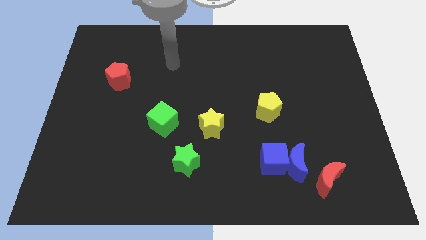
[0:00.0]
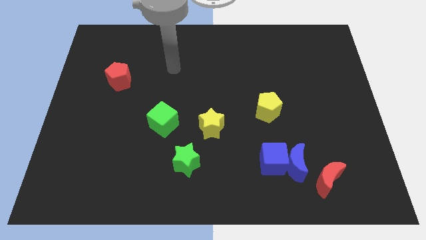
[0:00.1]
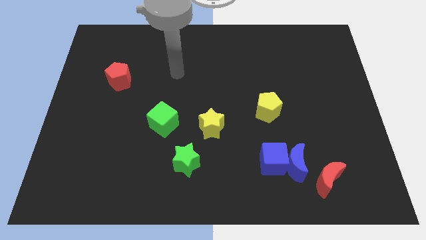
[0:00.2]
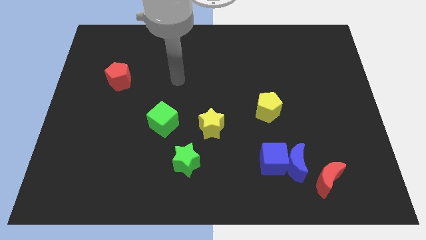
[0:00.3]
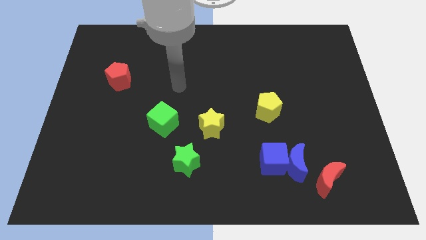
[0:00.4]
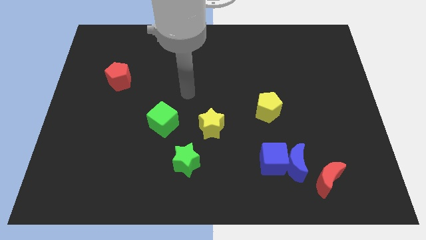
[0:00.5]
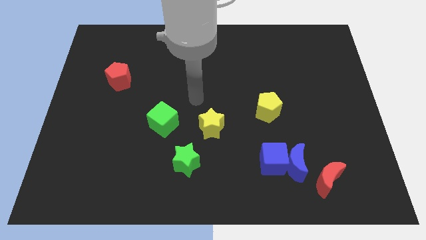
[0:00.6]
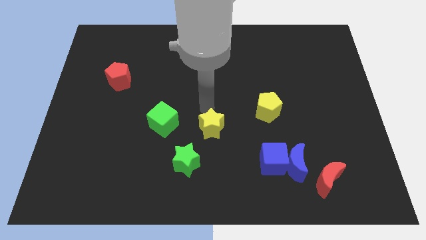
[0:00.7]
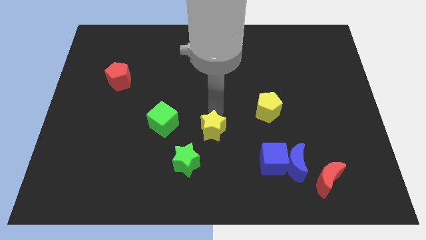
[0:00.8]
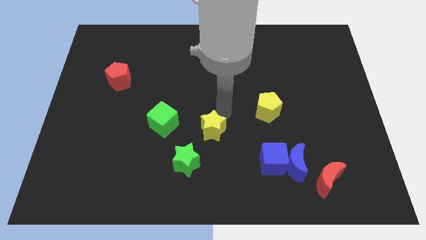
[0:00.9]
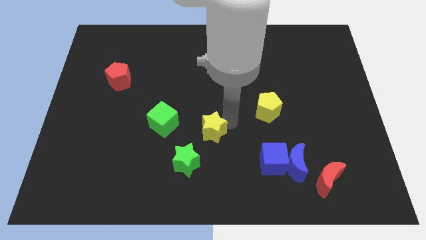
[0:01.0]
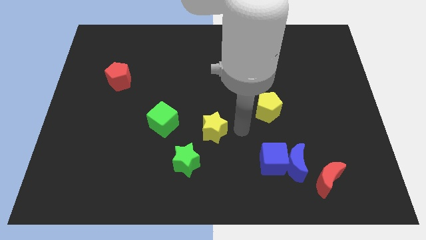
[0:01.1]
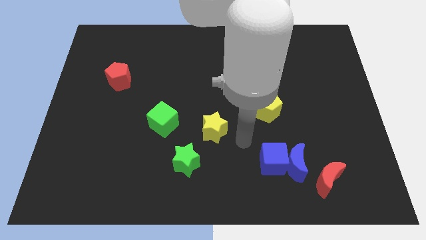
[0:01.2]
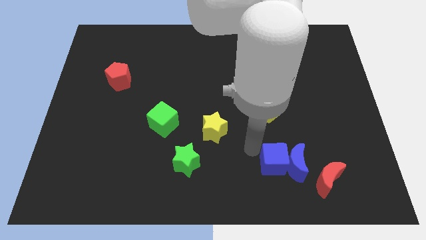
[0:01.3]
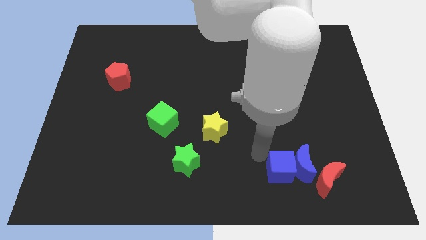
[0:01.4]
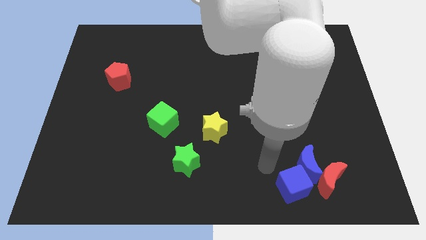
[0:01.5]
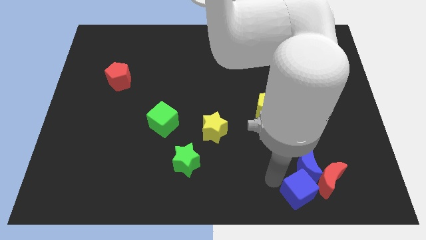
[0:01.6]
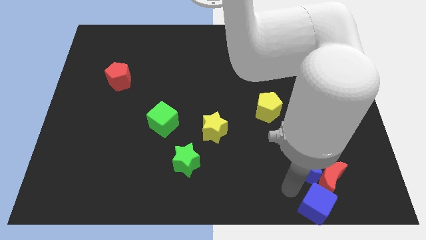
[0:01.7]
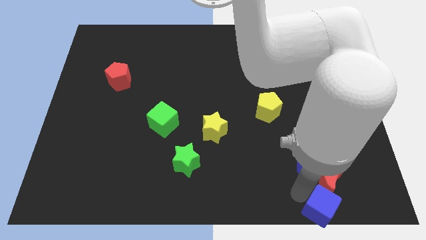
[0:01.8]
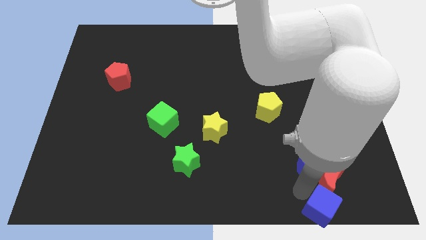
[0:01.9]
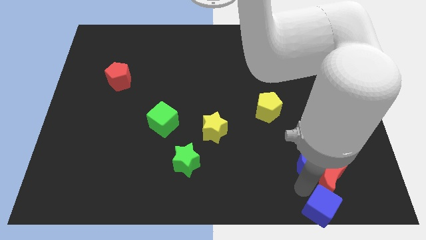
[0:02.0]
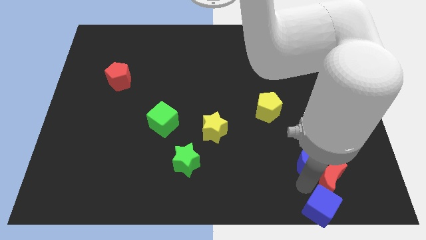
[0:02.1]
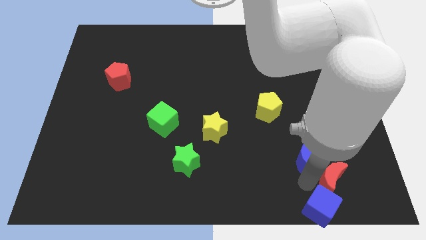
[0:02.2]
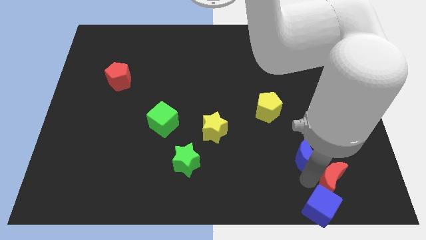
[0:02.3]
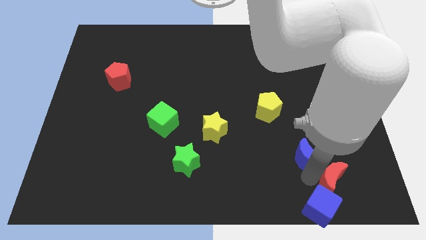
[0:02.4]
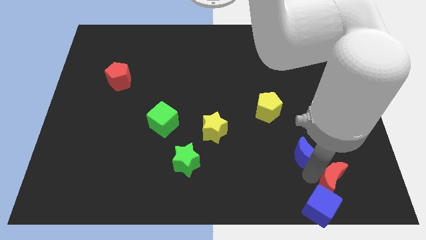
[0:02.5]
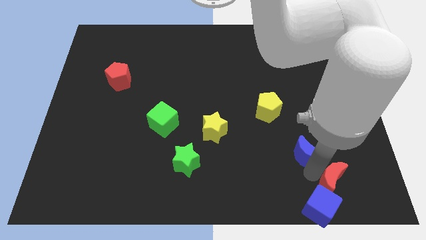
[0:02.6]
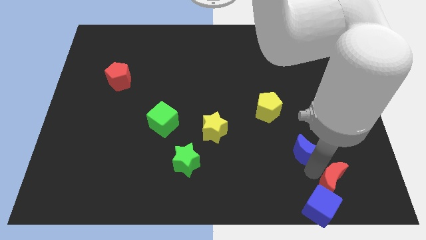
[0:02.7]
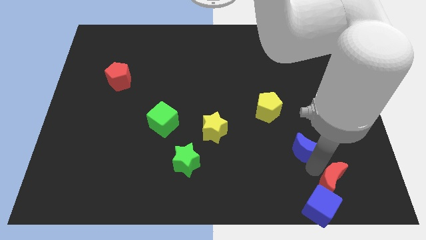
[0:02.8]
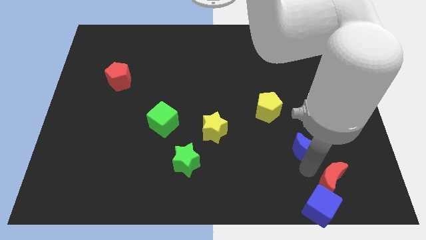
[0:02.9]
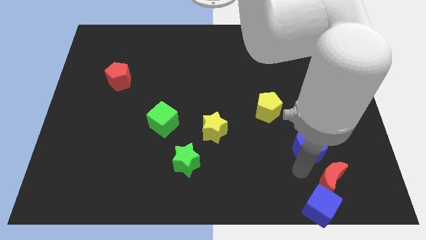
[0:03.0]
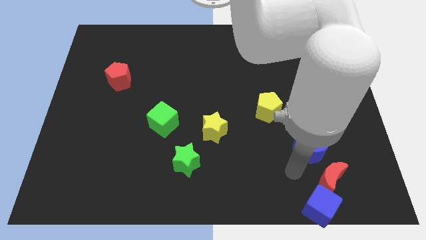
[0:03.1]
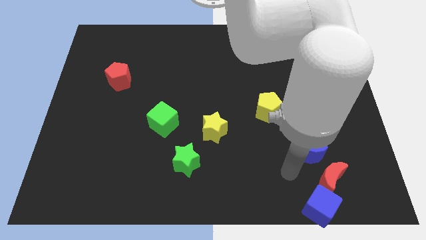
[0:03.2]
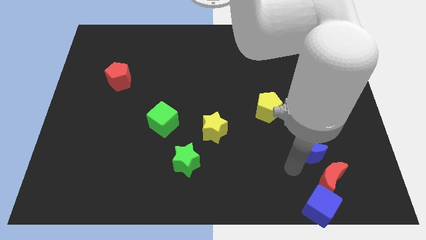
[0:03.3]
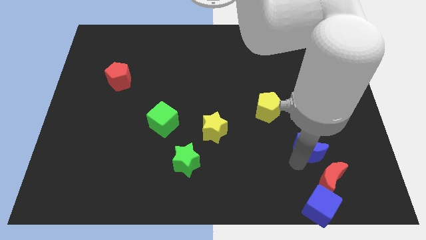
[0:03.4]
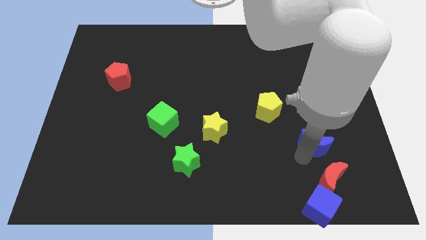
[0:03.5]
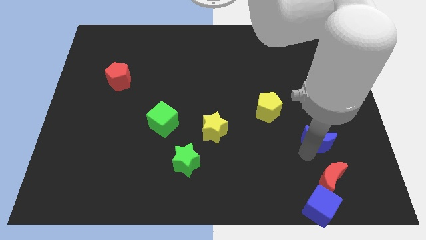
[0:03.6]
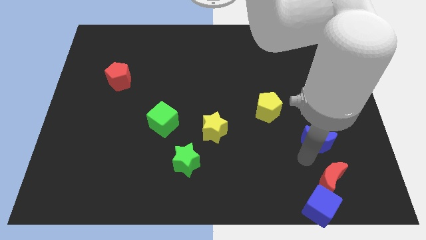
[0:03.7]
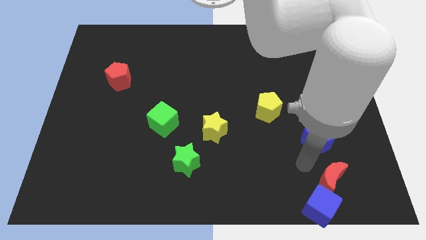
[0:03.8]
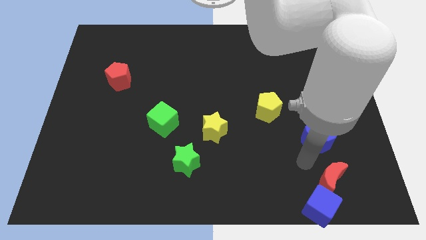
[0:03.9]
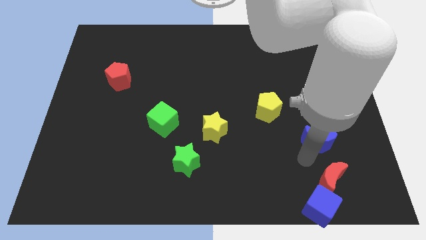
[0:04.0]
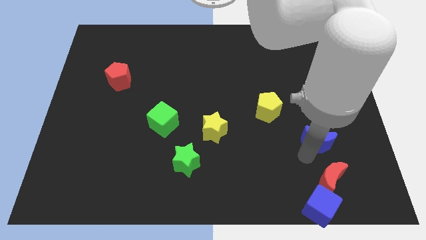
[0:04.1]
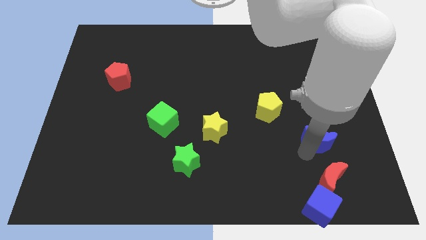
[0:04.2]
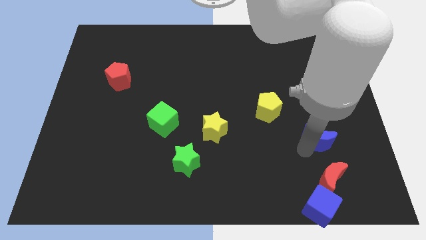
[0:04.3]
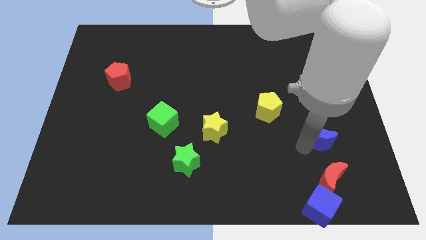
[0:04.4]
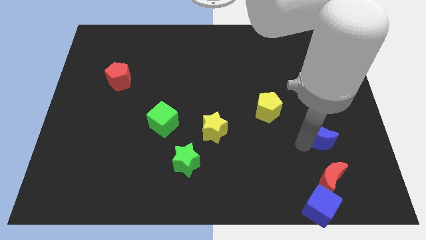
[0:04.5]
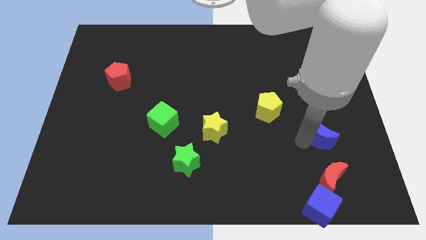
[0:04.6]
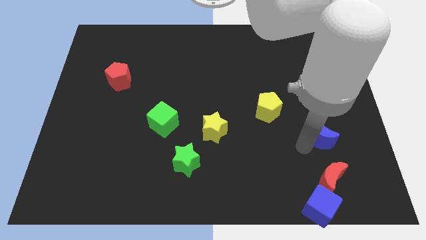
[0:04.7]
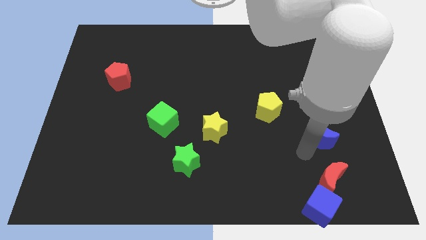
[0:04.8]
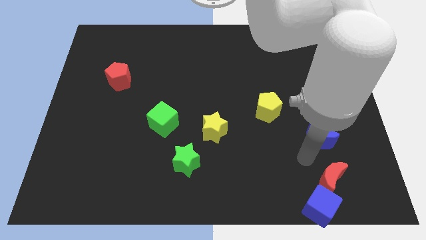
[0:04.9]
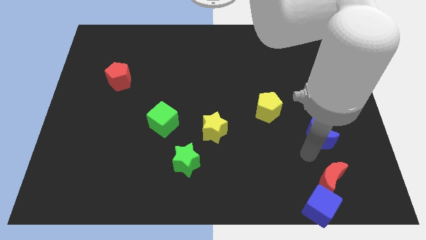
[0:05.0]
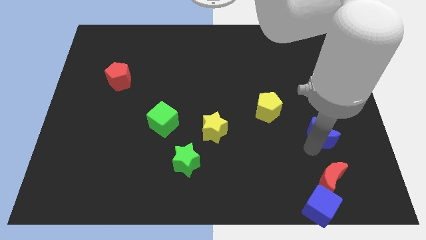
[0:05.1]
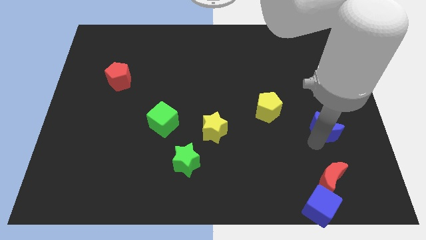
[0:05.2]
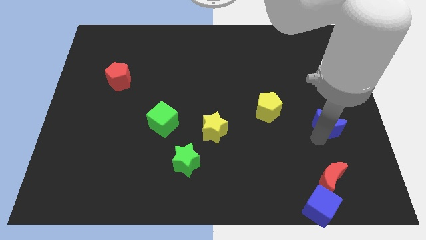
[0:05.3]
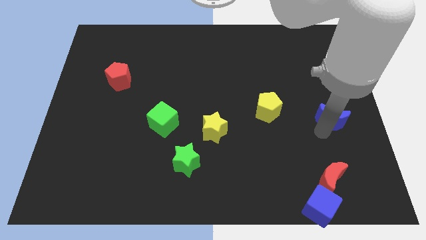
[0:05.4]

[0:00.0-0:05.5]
move the blue moon to the center right

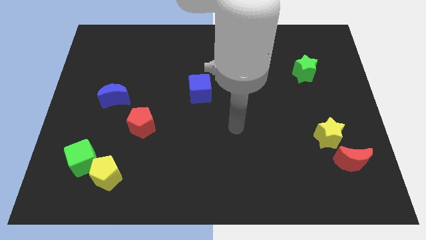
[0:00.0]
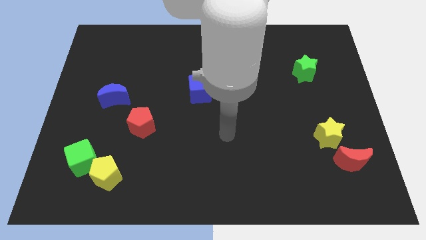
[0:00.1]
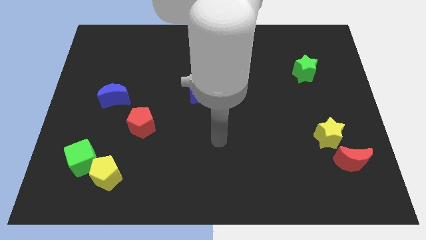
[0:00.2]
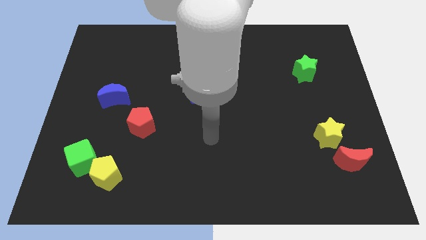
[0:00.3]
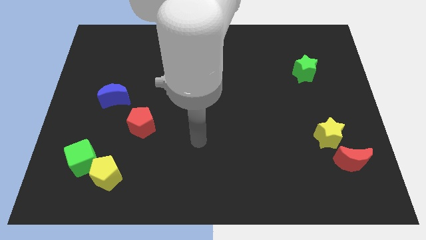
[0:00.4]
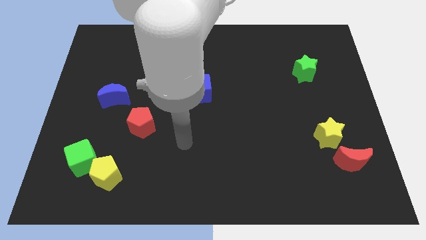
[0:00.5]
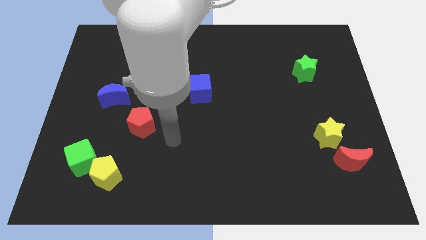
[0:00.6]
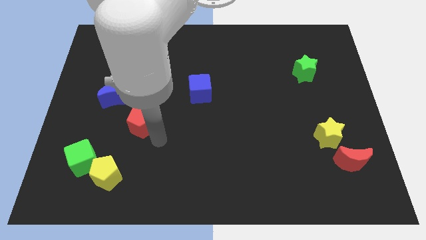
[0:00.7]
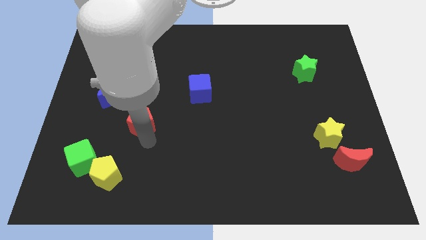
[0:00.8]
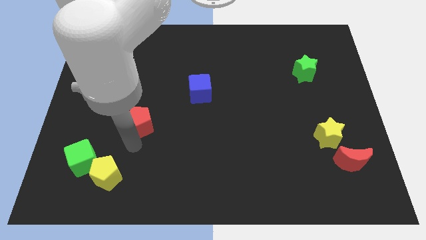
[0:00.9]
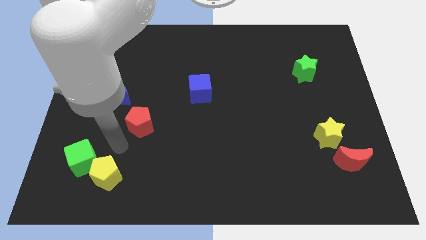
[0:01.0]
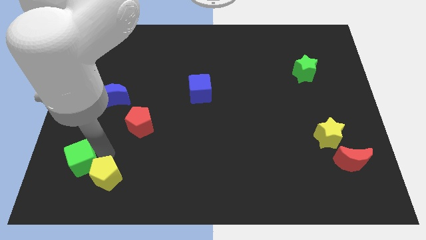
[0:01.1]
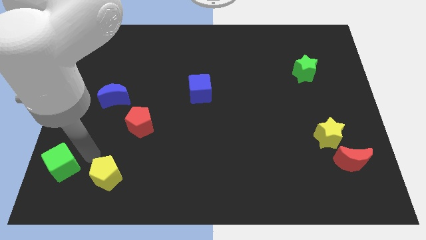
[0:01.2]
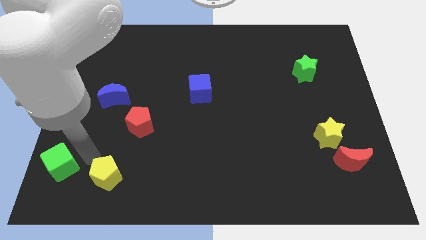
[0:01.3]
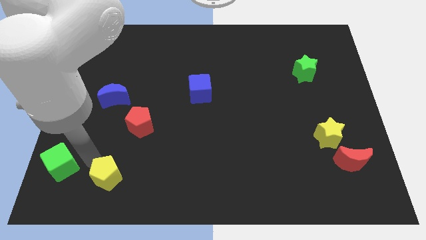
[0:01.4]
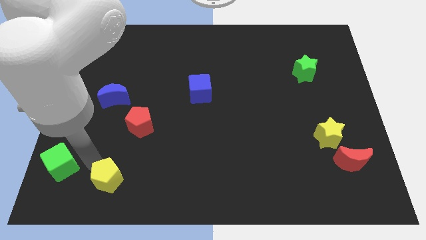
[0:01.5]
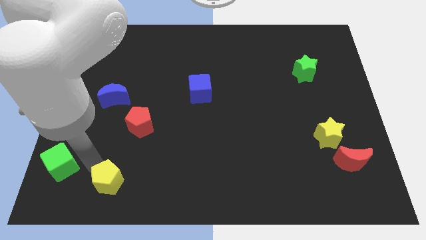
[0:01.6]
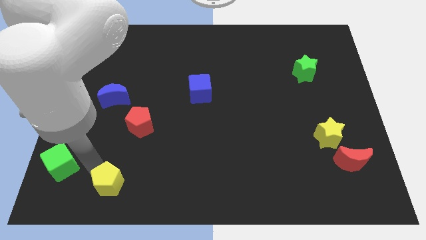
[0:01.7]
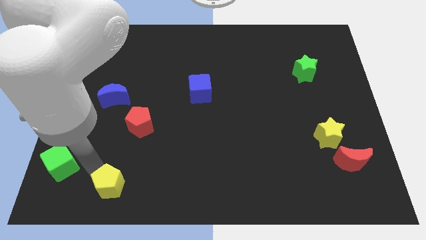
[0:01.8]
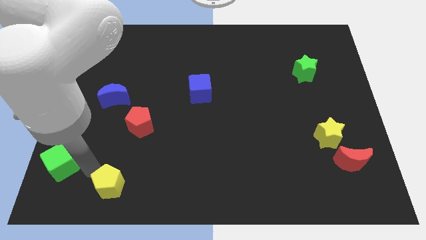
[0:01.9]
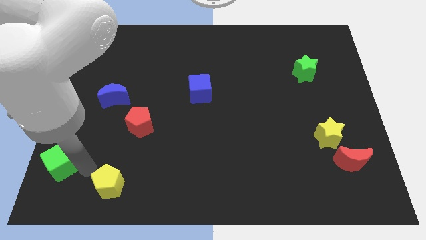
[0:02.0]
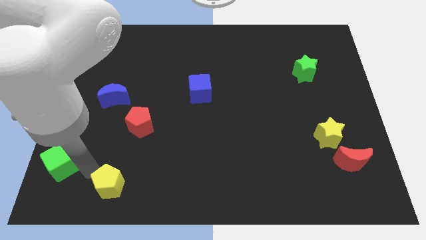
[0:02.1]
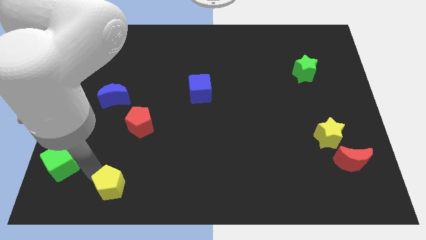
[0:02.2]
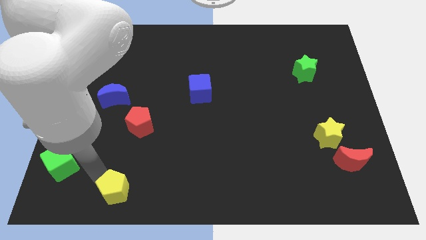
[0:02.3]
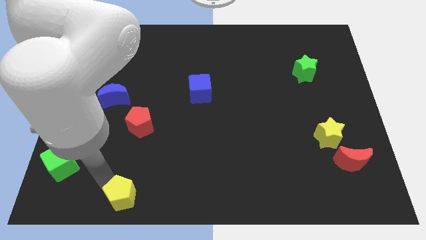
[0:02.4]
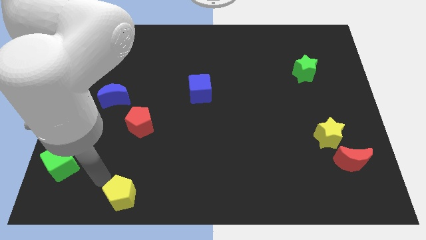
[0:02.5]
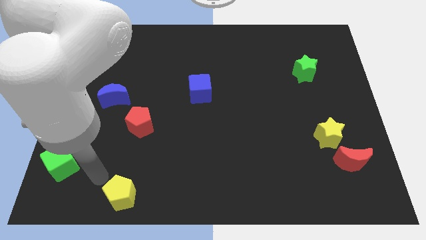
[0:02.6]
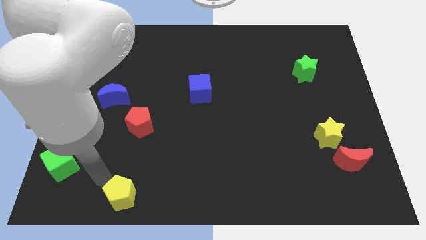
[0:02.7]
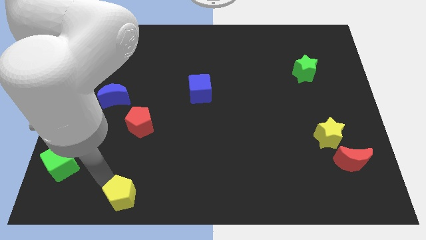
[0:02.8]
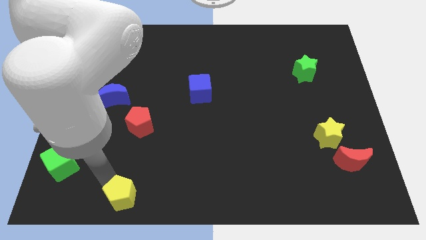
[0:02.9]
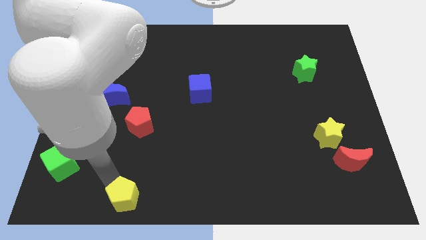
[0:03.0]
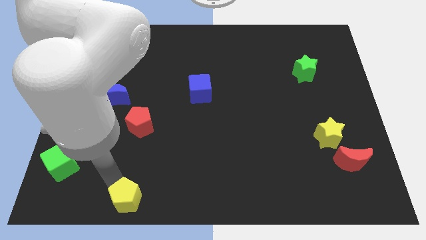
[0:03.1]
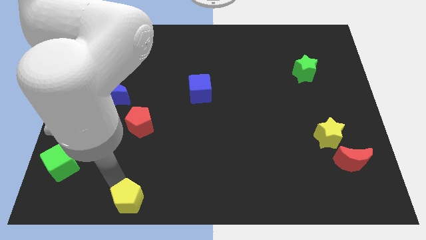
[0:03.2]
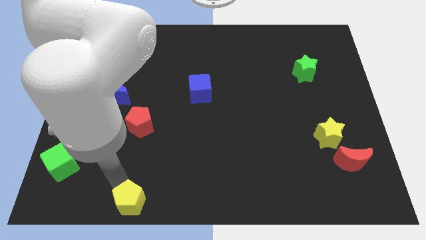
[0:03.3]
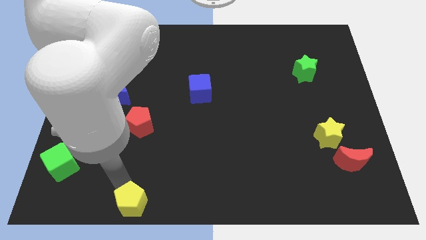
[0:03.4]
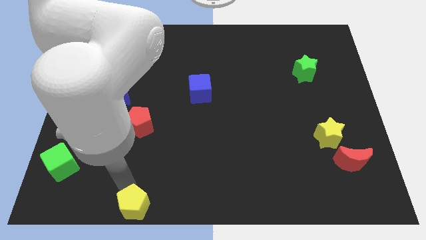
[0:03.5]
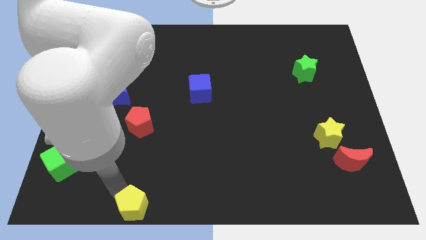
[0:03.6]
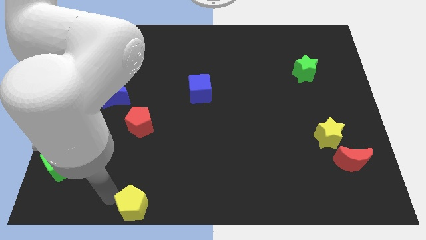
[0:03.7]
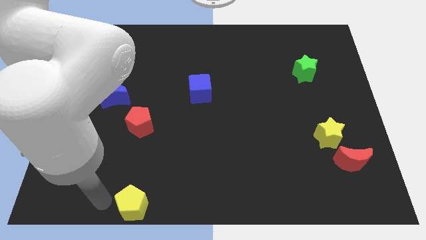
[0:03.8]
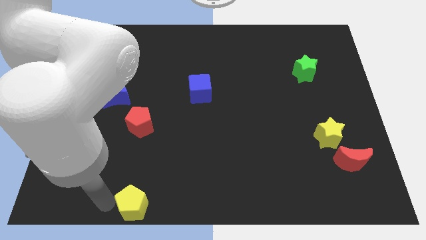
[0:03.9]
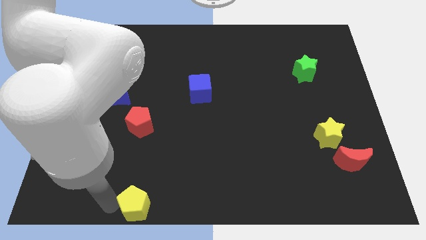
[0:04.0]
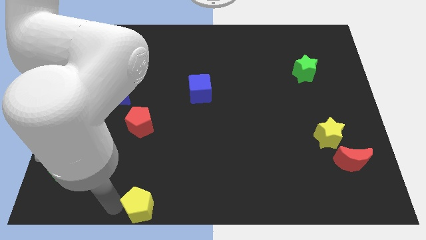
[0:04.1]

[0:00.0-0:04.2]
put the yellow pentagon to the bottom side
